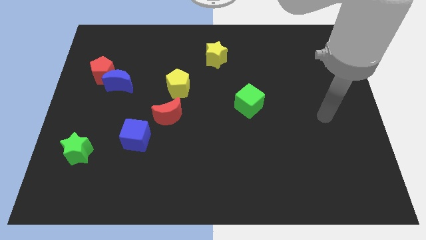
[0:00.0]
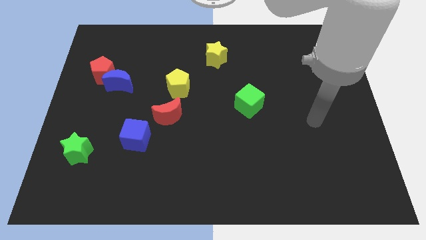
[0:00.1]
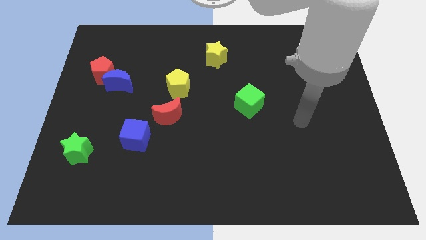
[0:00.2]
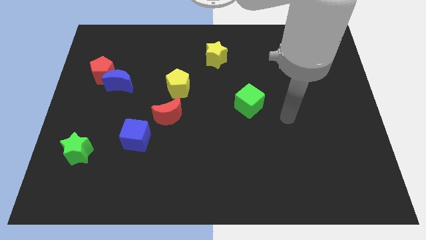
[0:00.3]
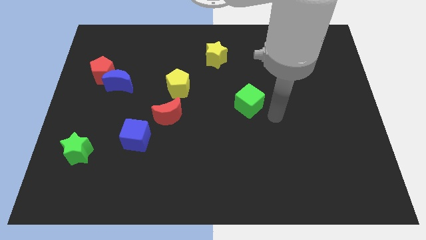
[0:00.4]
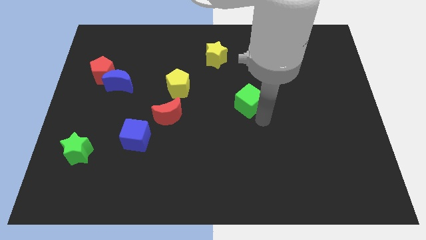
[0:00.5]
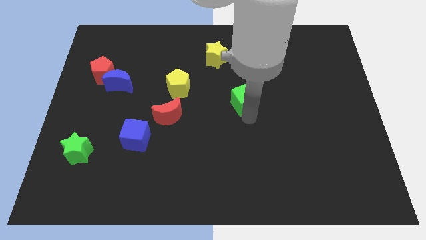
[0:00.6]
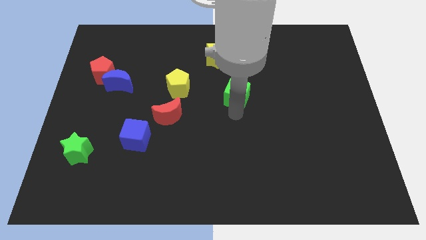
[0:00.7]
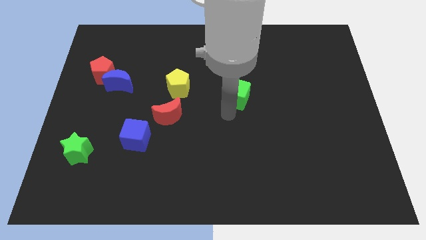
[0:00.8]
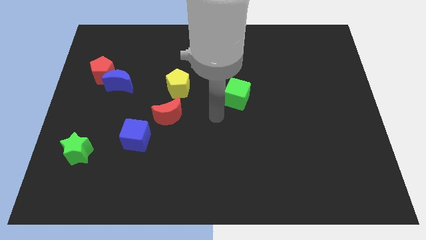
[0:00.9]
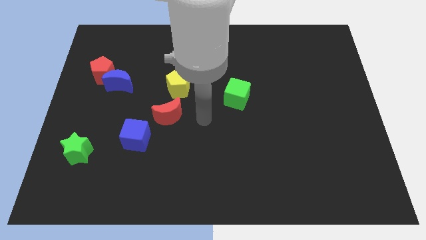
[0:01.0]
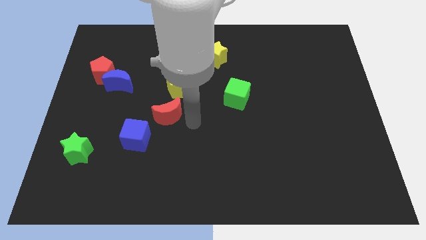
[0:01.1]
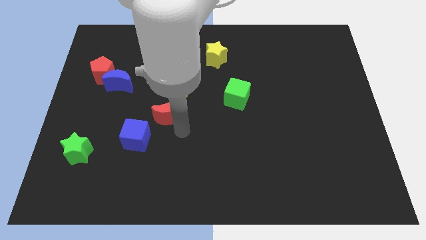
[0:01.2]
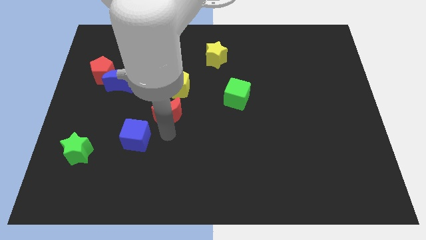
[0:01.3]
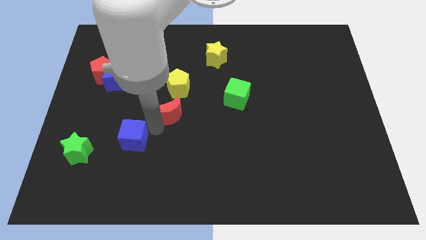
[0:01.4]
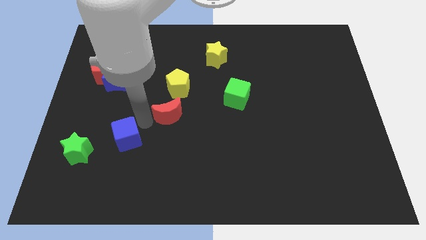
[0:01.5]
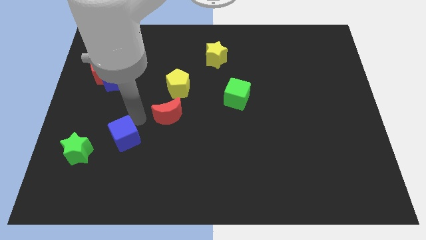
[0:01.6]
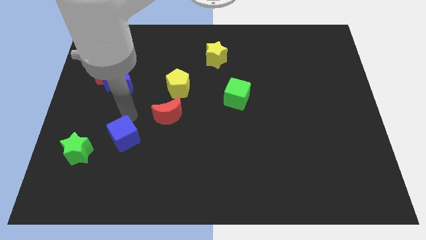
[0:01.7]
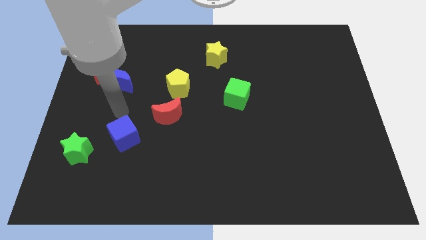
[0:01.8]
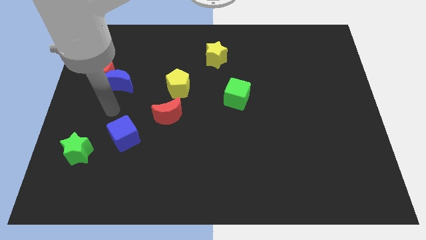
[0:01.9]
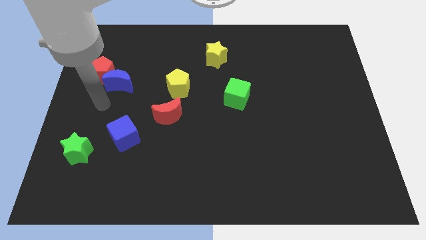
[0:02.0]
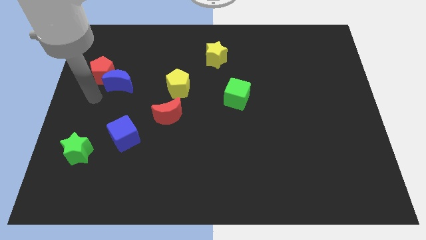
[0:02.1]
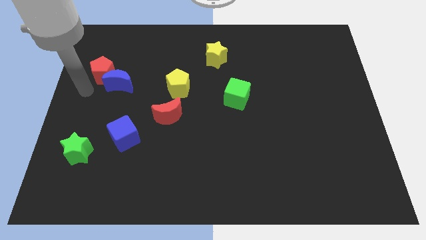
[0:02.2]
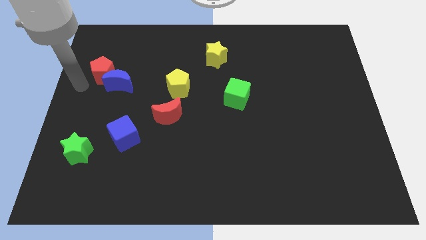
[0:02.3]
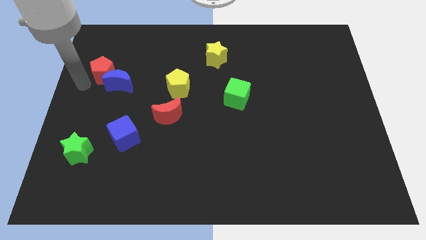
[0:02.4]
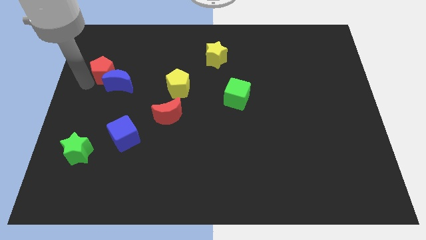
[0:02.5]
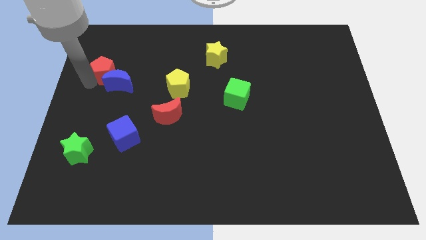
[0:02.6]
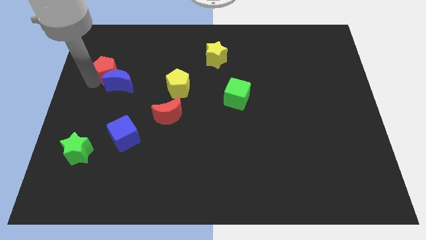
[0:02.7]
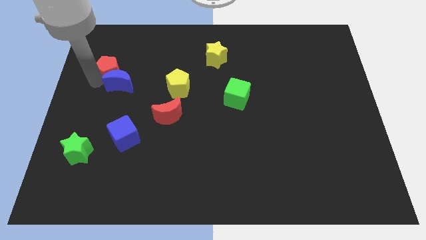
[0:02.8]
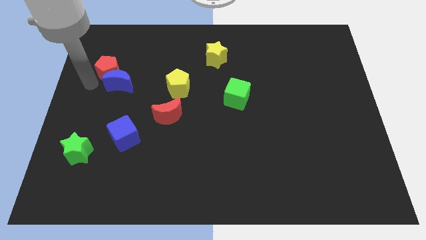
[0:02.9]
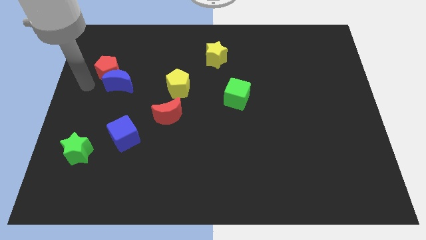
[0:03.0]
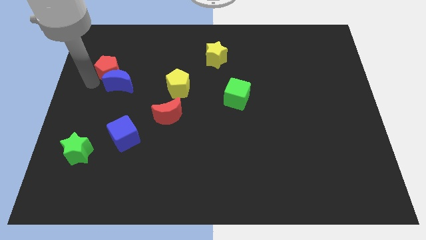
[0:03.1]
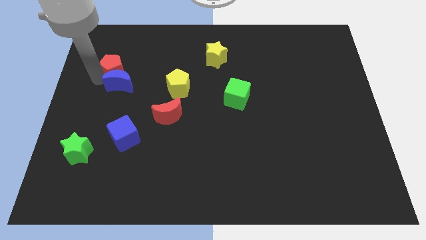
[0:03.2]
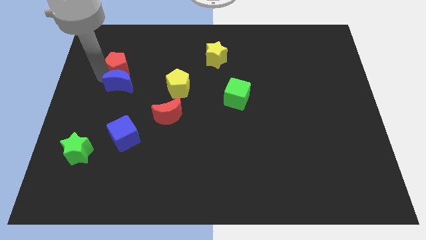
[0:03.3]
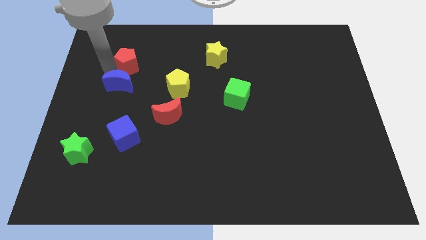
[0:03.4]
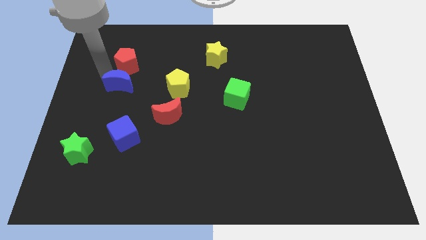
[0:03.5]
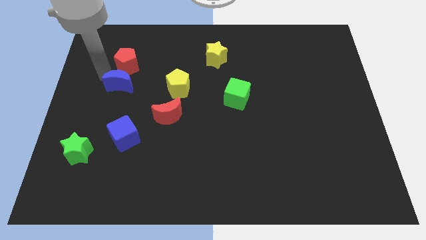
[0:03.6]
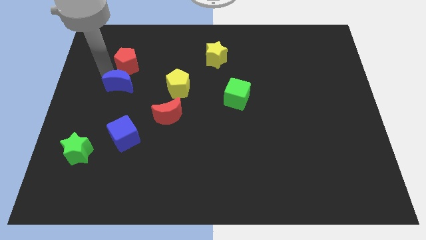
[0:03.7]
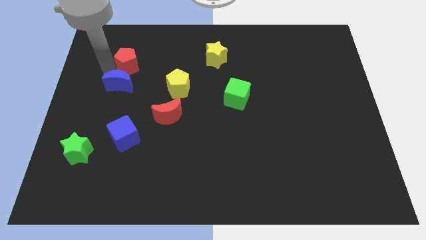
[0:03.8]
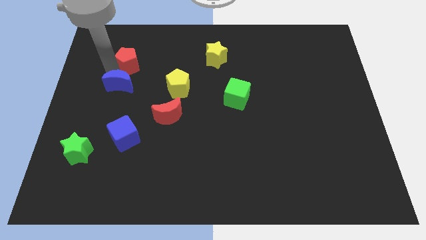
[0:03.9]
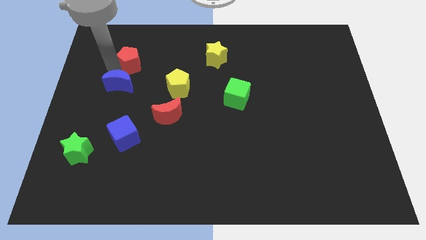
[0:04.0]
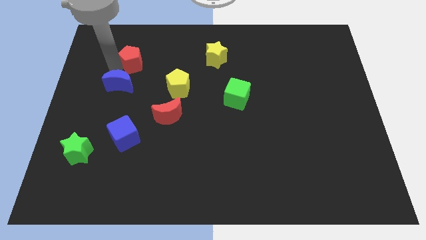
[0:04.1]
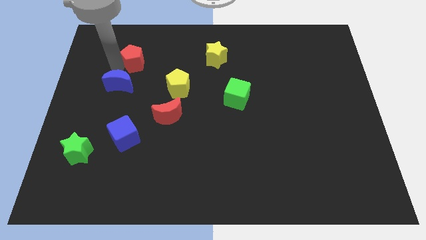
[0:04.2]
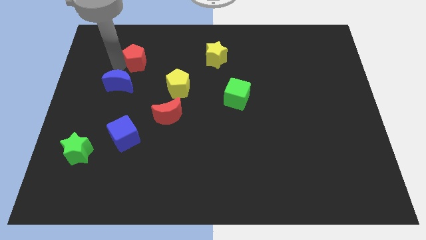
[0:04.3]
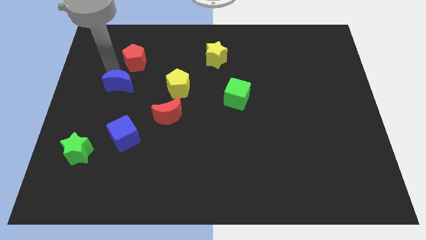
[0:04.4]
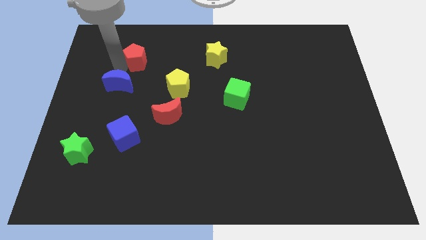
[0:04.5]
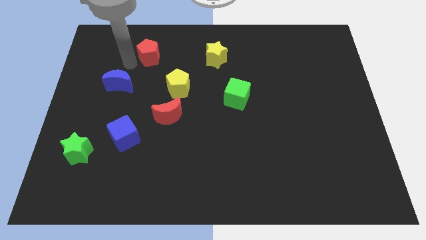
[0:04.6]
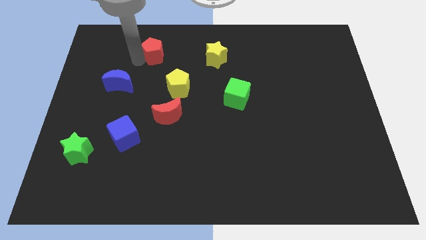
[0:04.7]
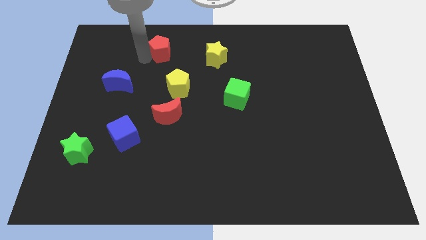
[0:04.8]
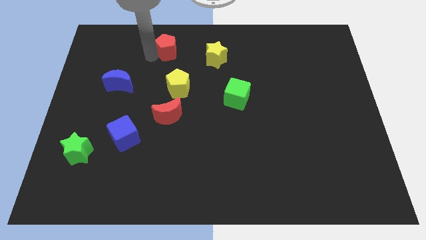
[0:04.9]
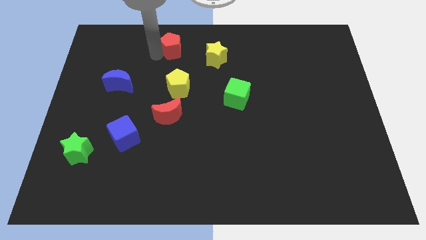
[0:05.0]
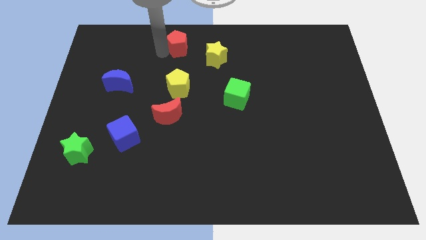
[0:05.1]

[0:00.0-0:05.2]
push the red pentagon to the top side

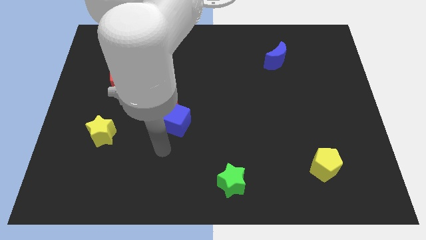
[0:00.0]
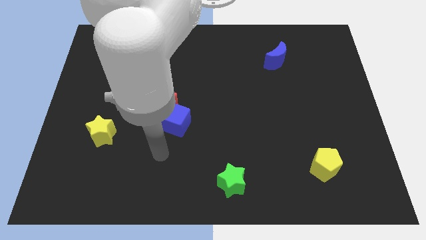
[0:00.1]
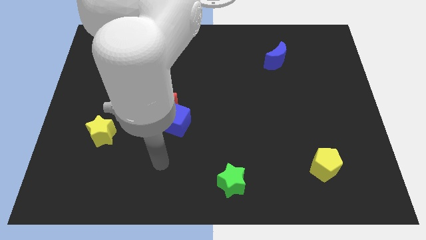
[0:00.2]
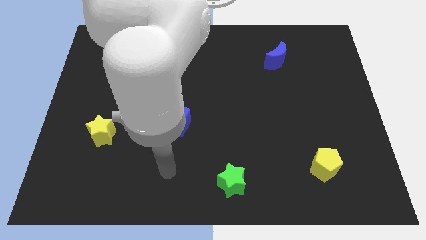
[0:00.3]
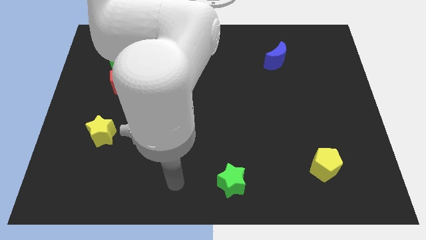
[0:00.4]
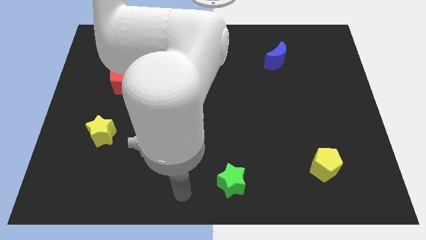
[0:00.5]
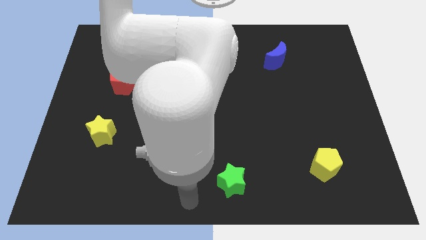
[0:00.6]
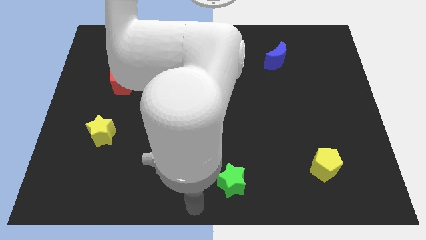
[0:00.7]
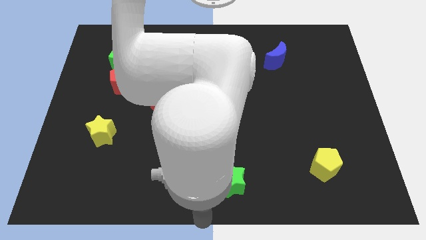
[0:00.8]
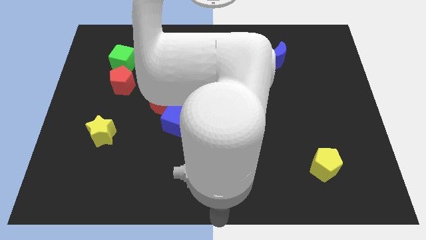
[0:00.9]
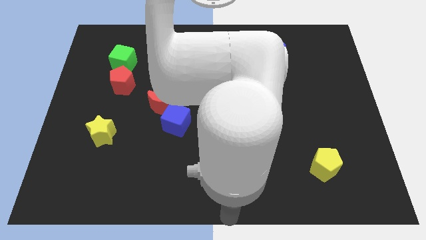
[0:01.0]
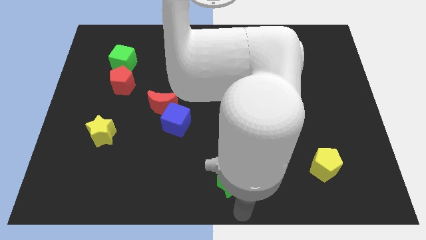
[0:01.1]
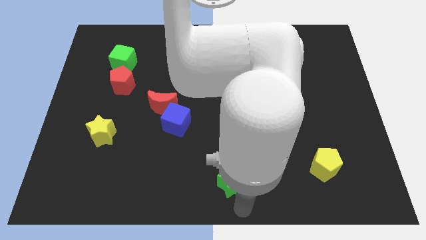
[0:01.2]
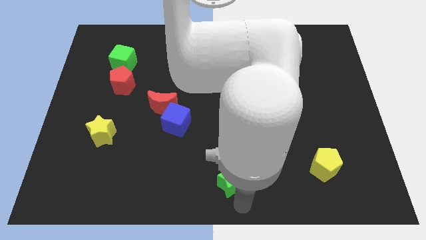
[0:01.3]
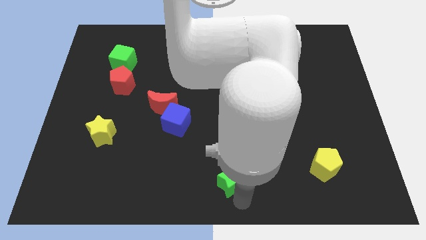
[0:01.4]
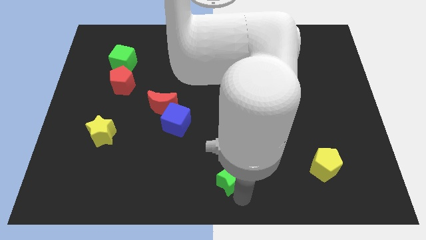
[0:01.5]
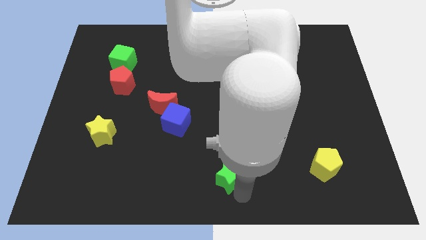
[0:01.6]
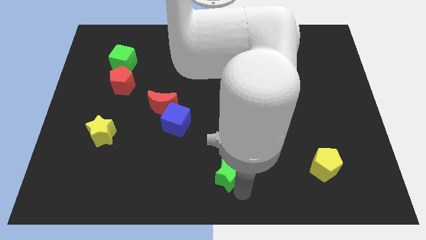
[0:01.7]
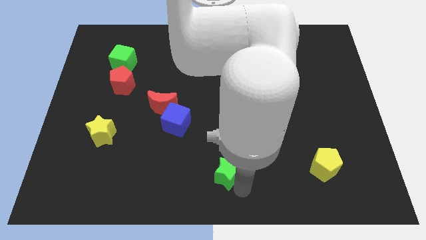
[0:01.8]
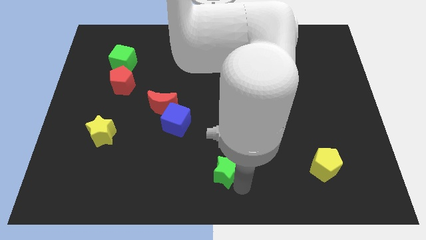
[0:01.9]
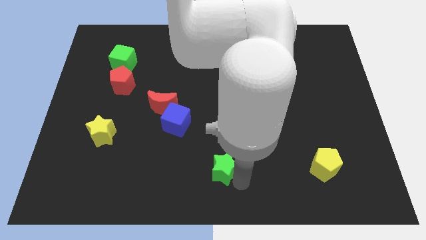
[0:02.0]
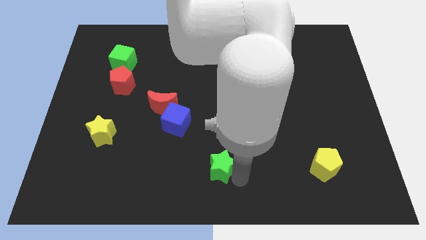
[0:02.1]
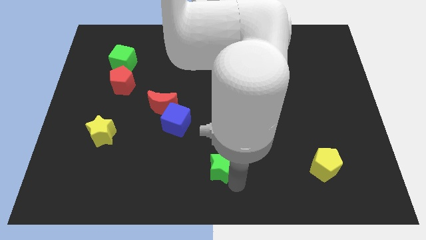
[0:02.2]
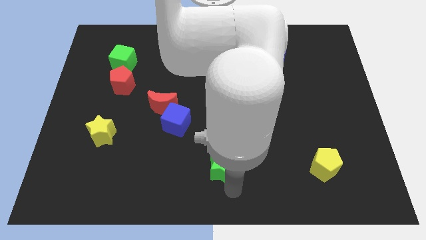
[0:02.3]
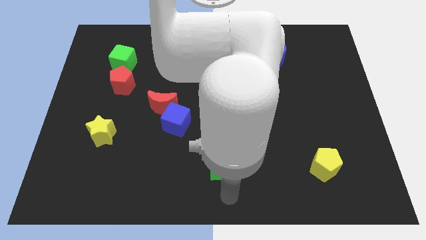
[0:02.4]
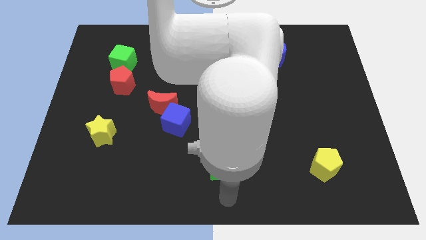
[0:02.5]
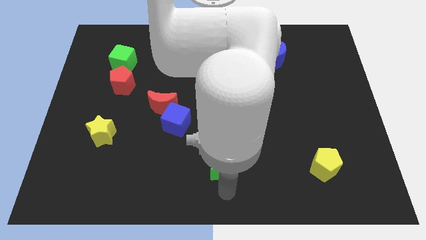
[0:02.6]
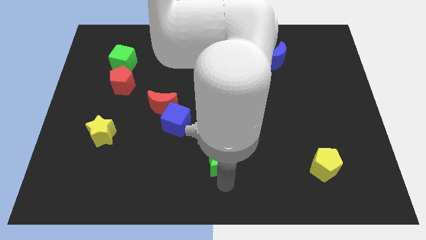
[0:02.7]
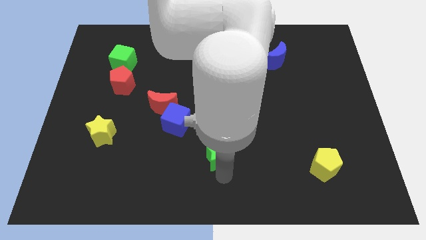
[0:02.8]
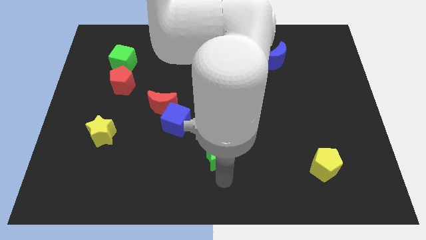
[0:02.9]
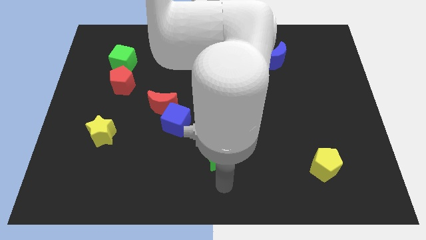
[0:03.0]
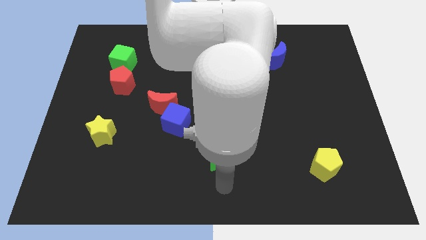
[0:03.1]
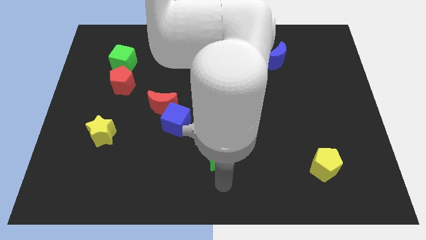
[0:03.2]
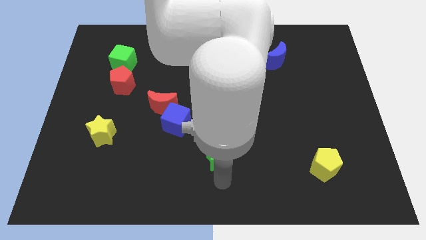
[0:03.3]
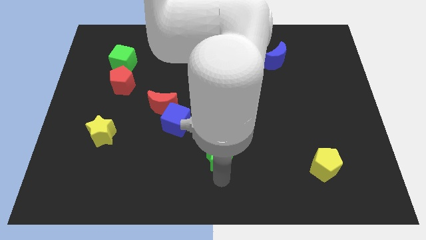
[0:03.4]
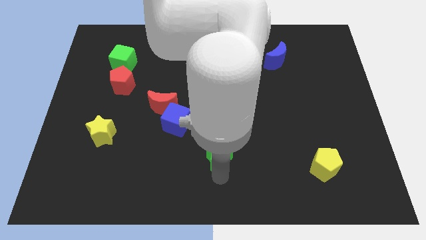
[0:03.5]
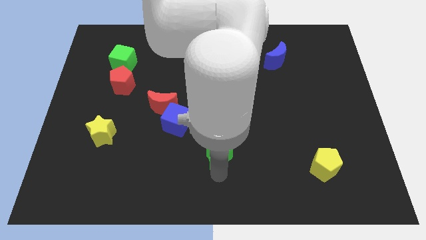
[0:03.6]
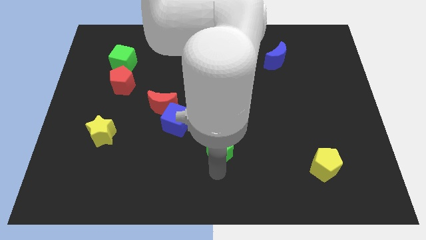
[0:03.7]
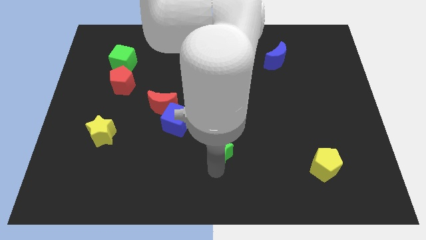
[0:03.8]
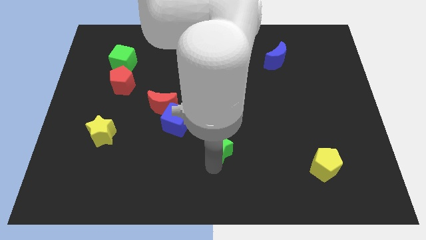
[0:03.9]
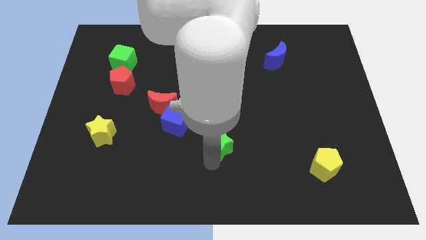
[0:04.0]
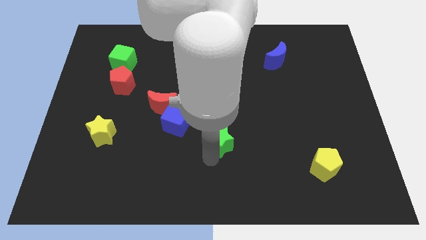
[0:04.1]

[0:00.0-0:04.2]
push the green star to the center
